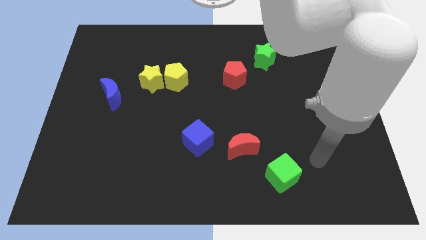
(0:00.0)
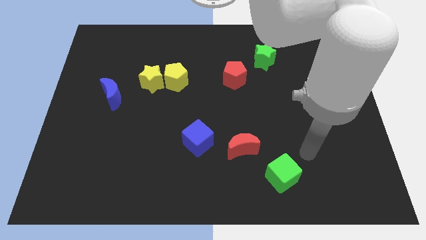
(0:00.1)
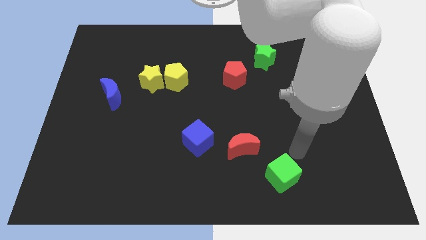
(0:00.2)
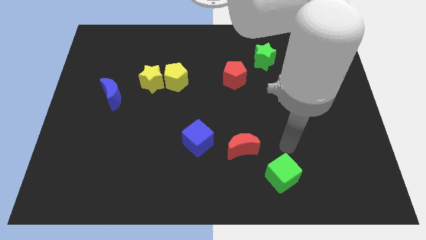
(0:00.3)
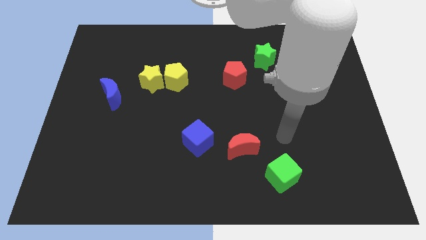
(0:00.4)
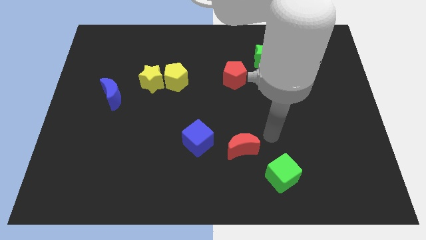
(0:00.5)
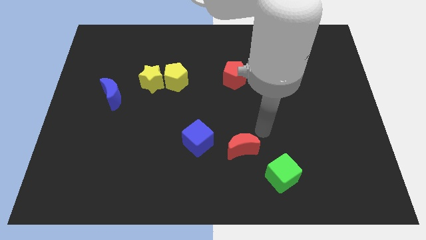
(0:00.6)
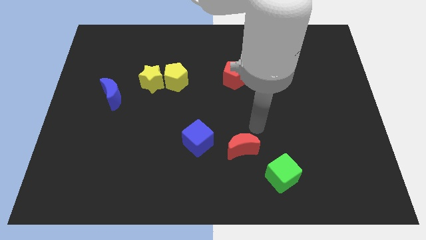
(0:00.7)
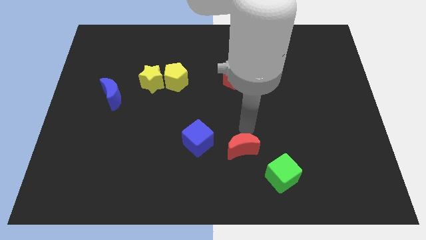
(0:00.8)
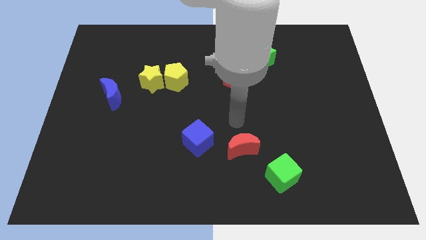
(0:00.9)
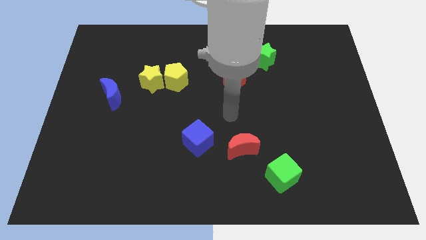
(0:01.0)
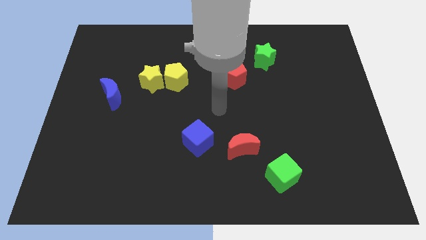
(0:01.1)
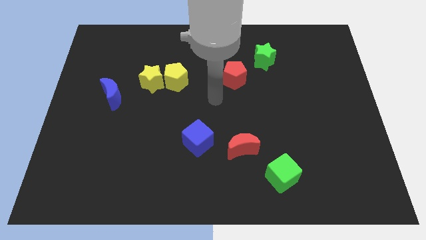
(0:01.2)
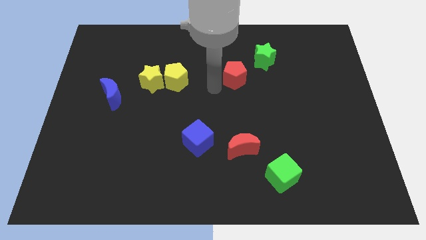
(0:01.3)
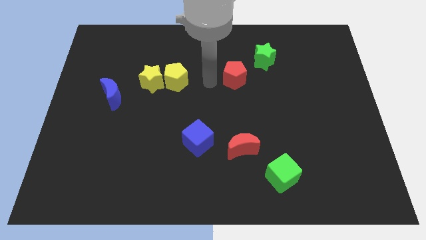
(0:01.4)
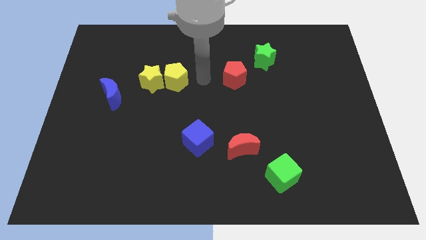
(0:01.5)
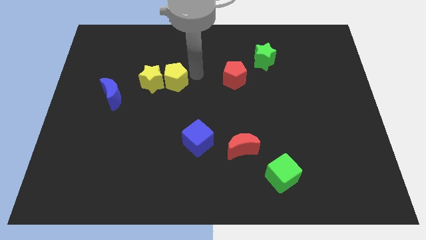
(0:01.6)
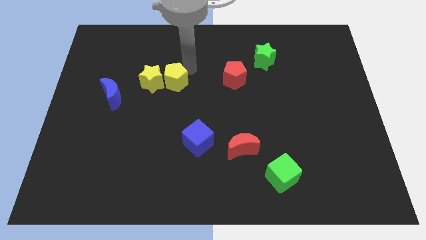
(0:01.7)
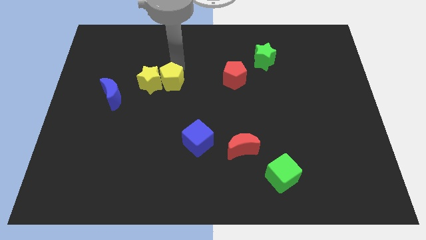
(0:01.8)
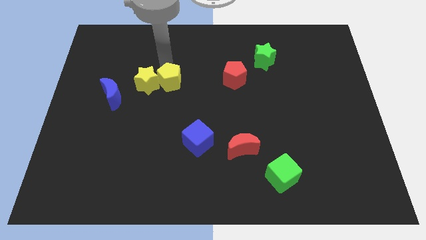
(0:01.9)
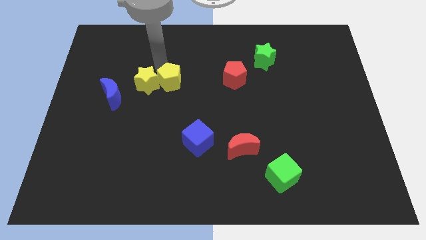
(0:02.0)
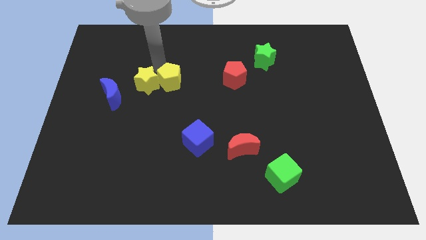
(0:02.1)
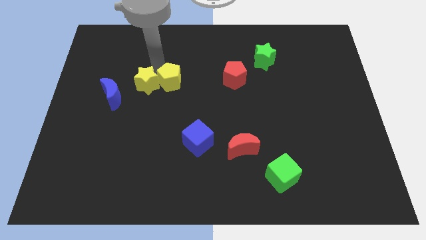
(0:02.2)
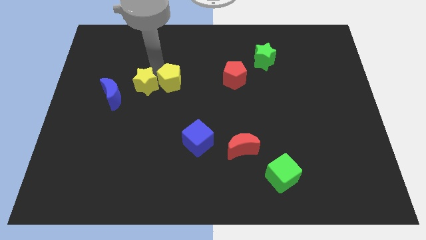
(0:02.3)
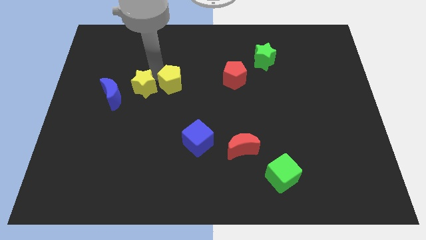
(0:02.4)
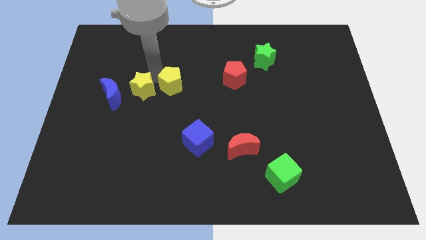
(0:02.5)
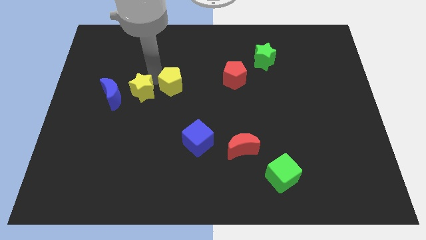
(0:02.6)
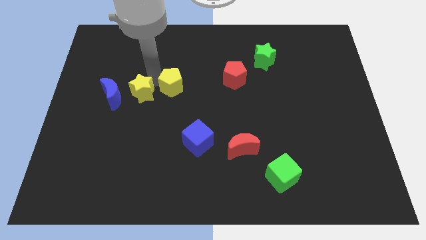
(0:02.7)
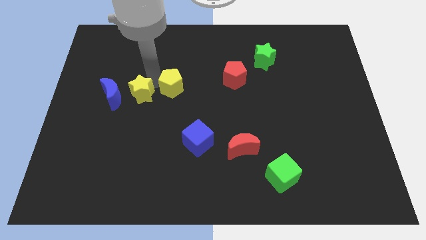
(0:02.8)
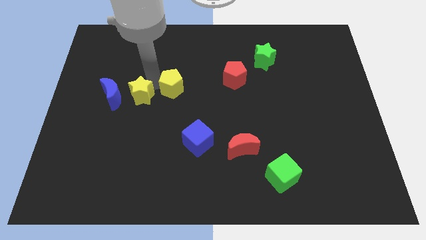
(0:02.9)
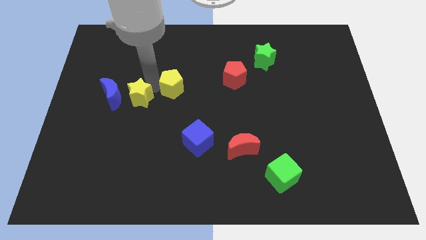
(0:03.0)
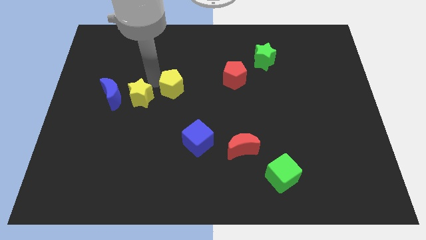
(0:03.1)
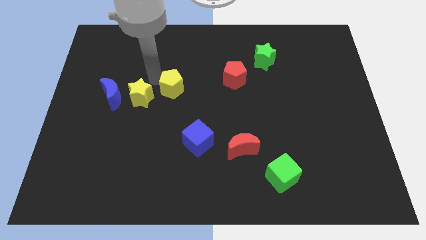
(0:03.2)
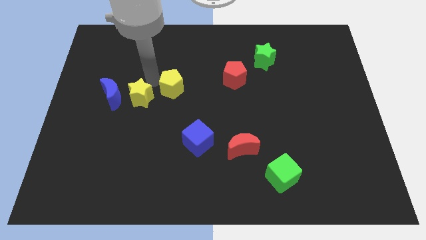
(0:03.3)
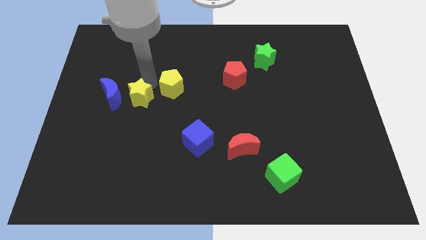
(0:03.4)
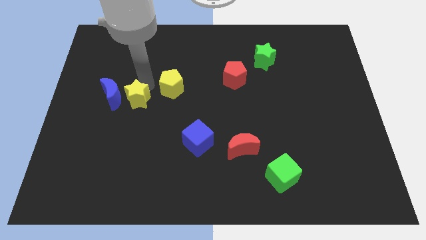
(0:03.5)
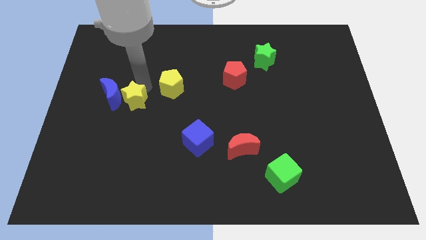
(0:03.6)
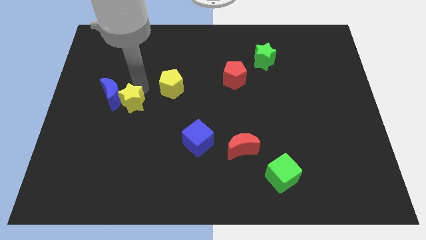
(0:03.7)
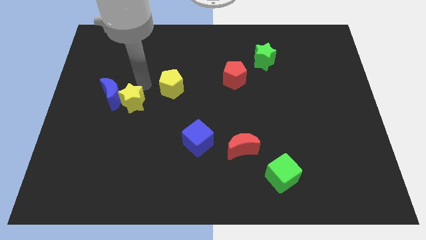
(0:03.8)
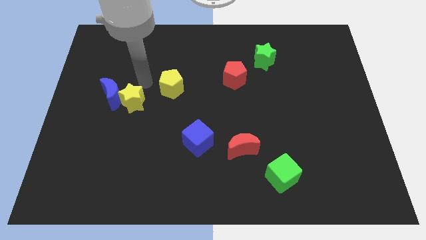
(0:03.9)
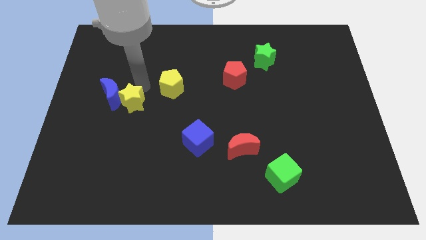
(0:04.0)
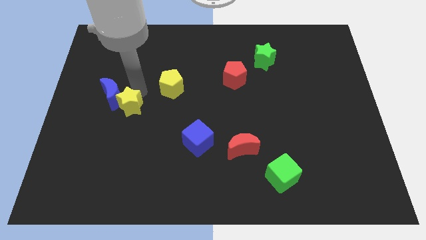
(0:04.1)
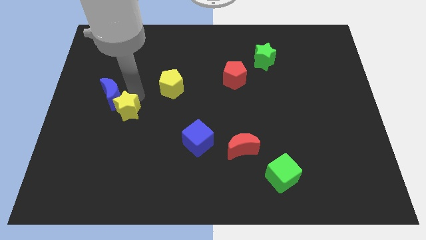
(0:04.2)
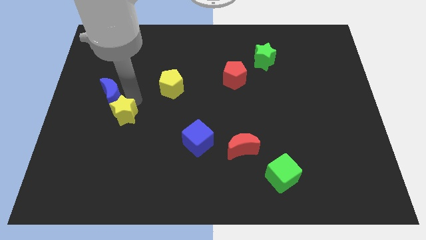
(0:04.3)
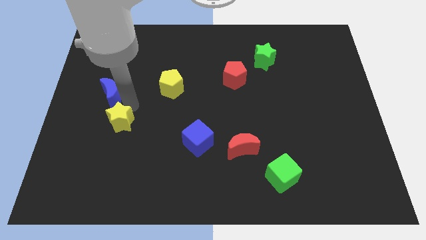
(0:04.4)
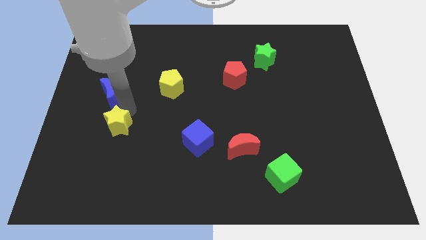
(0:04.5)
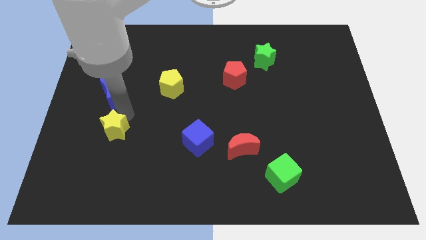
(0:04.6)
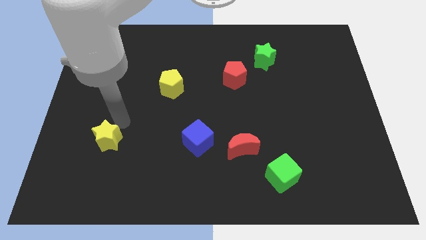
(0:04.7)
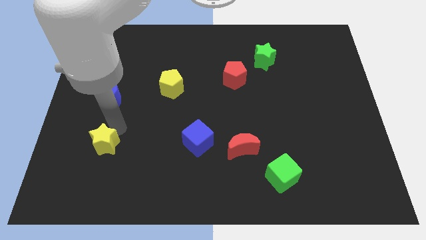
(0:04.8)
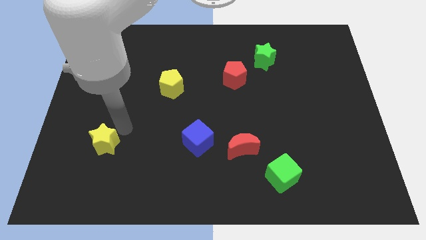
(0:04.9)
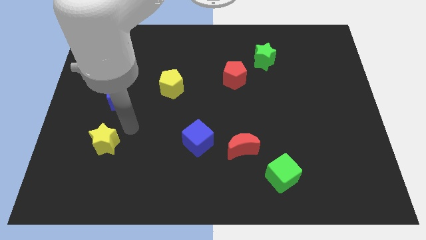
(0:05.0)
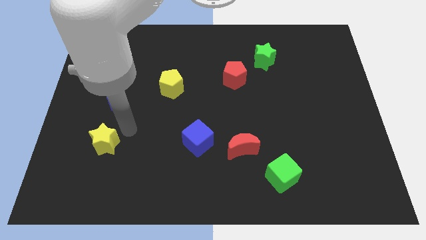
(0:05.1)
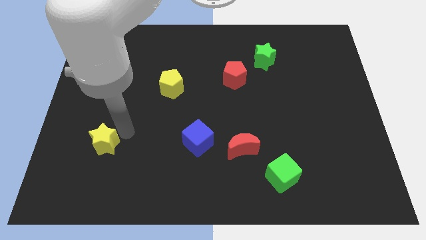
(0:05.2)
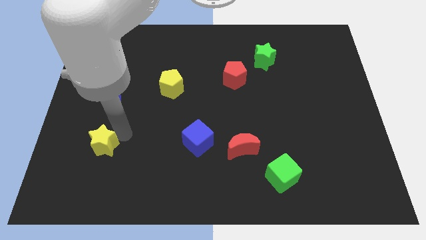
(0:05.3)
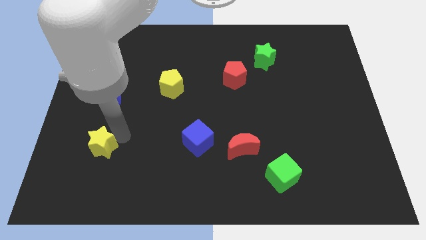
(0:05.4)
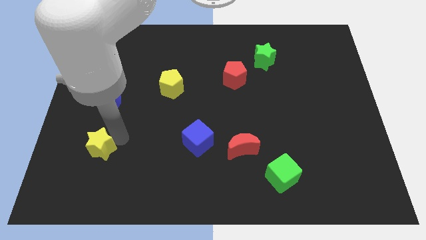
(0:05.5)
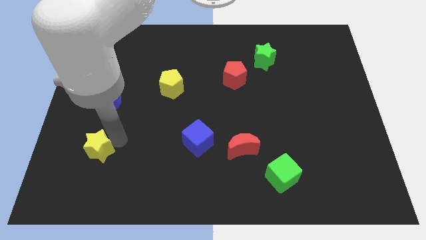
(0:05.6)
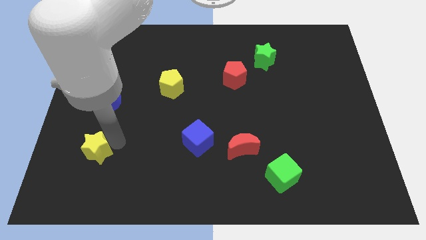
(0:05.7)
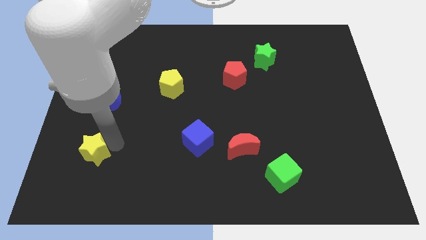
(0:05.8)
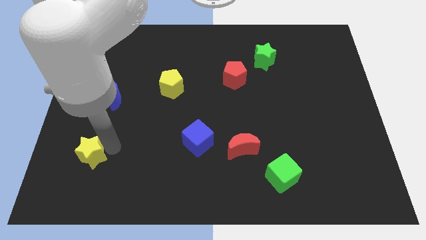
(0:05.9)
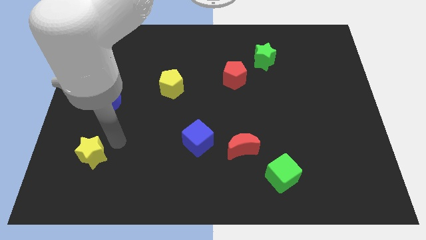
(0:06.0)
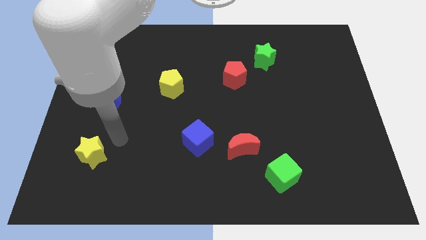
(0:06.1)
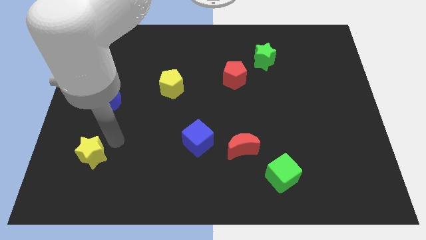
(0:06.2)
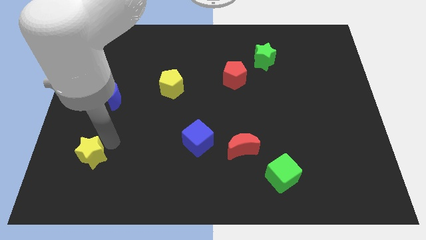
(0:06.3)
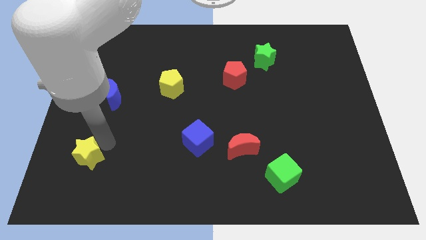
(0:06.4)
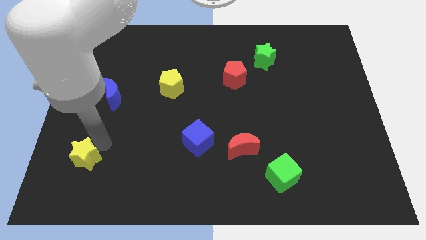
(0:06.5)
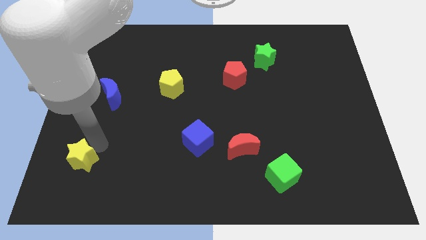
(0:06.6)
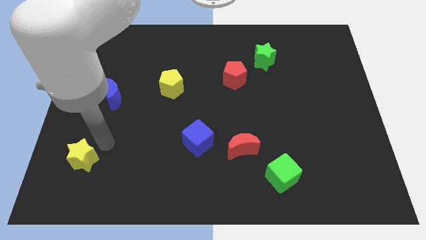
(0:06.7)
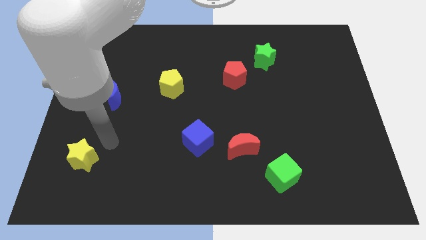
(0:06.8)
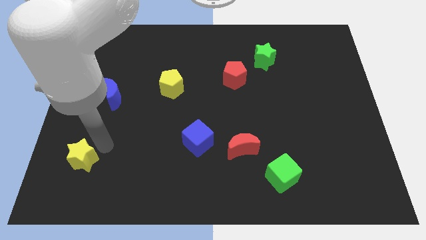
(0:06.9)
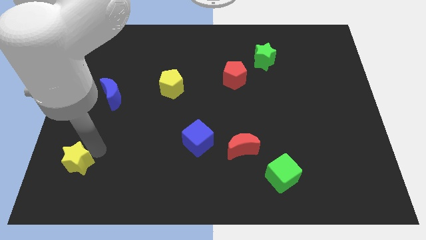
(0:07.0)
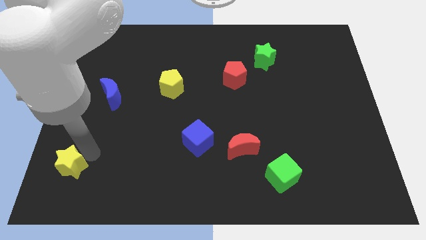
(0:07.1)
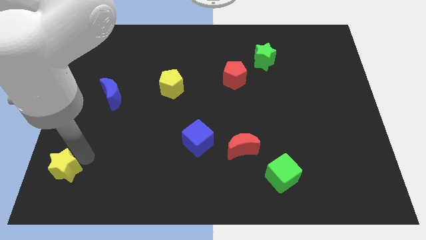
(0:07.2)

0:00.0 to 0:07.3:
move the yellow star to the bottom left of the board

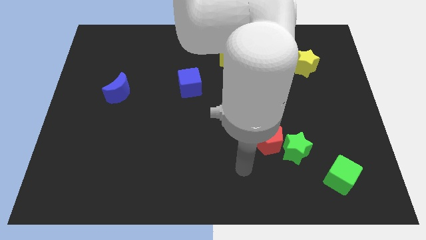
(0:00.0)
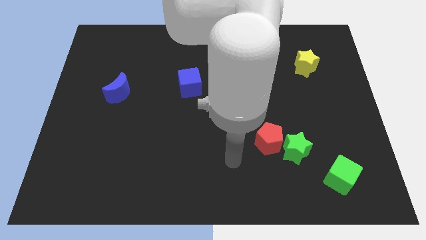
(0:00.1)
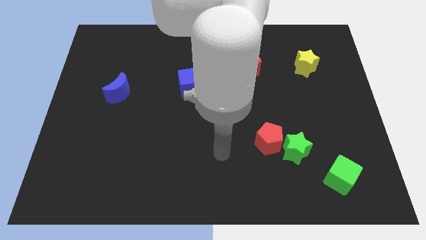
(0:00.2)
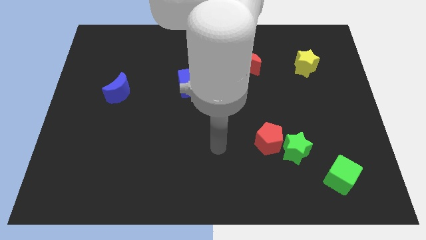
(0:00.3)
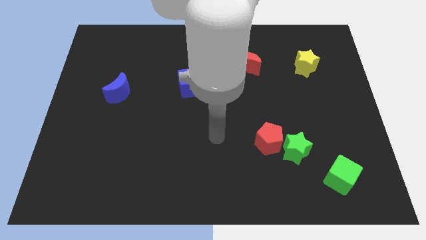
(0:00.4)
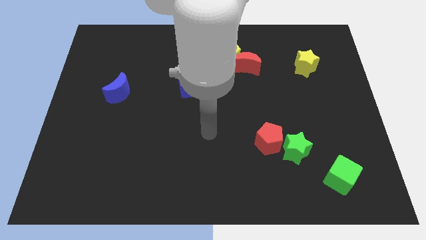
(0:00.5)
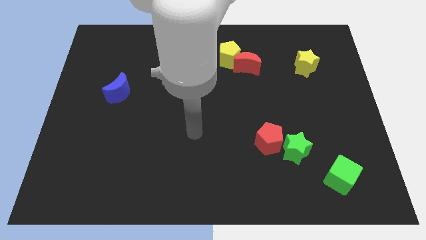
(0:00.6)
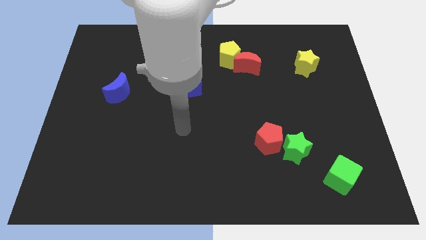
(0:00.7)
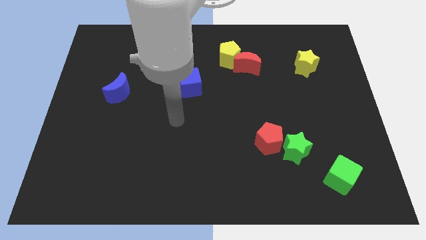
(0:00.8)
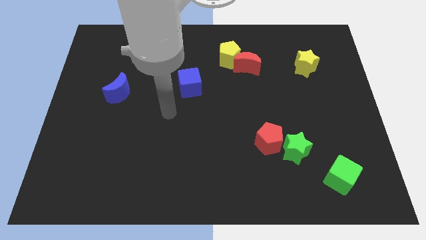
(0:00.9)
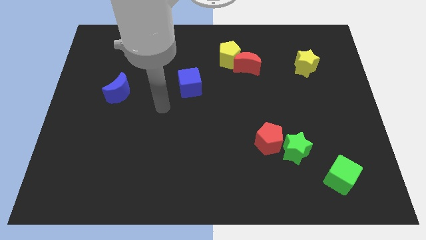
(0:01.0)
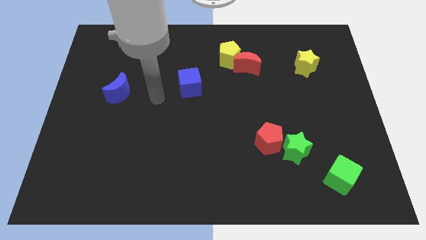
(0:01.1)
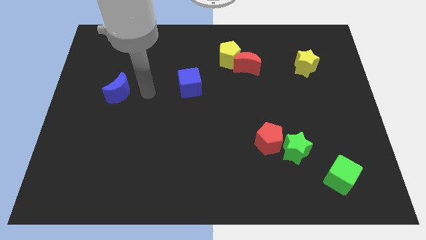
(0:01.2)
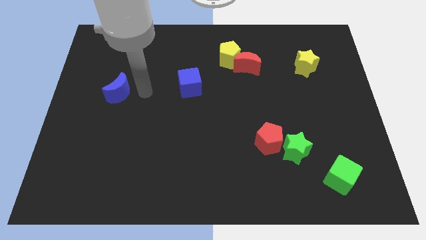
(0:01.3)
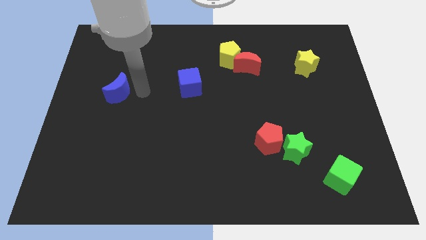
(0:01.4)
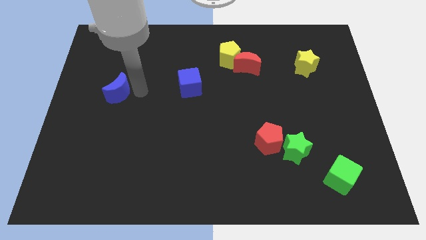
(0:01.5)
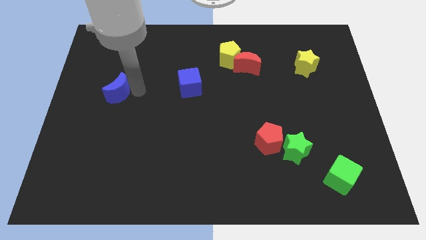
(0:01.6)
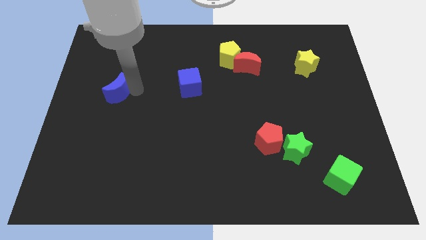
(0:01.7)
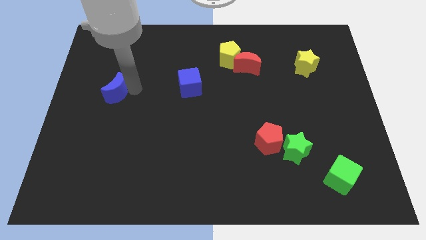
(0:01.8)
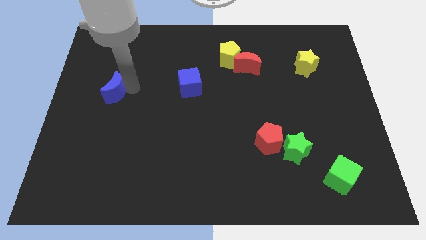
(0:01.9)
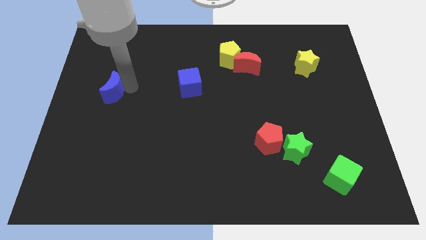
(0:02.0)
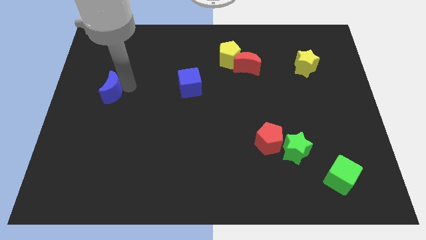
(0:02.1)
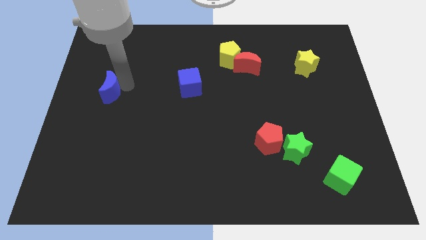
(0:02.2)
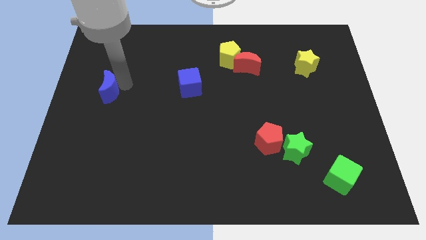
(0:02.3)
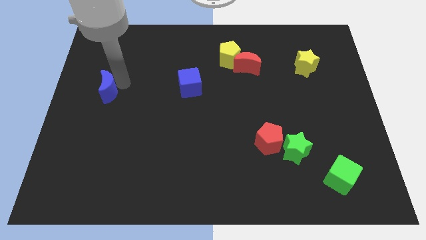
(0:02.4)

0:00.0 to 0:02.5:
put the blue moon to the center left
